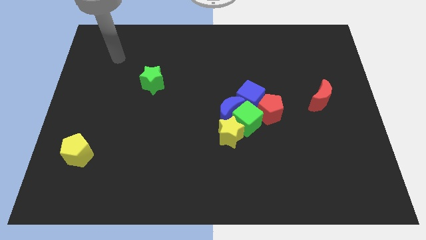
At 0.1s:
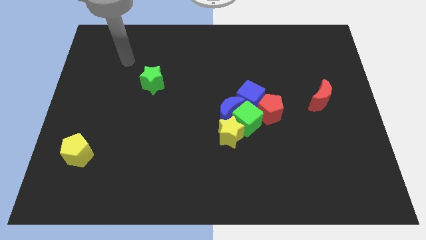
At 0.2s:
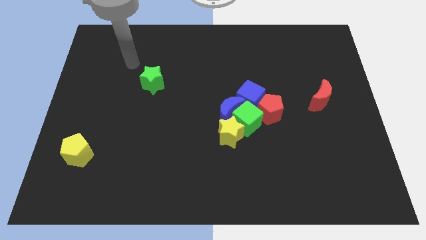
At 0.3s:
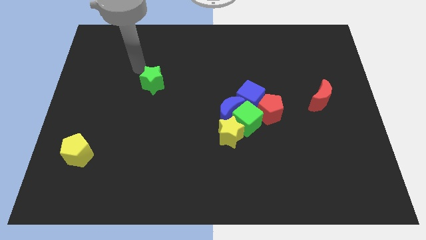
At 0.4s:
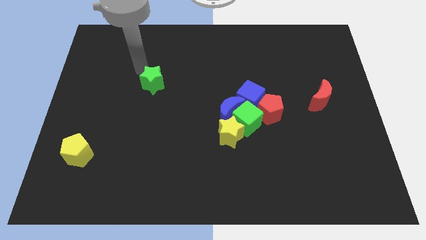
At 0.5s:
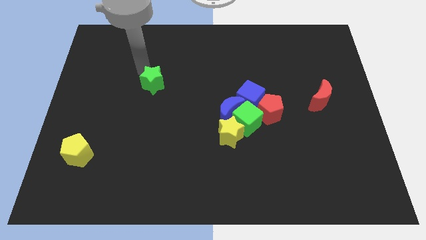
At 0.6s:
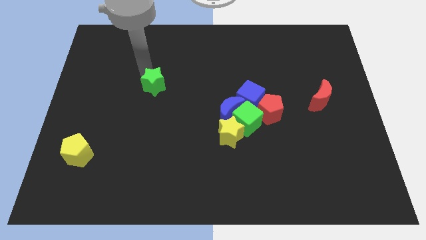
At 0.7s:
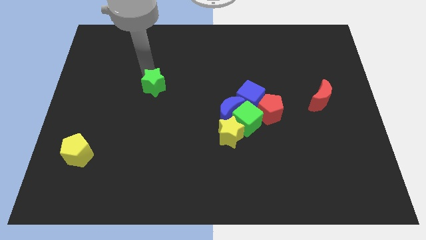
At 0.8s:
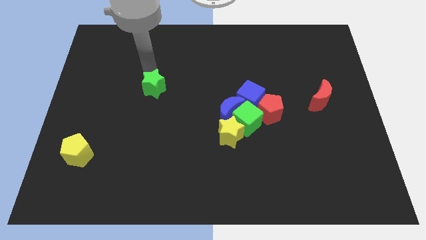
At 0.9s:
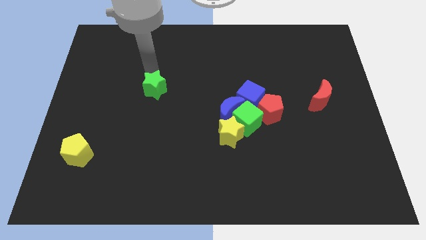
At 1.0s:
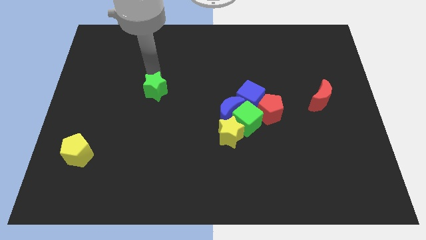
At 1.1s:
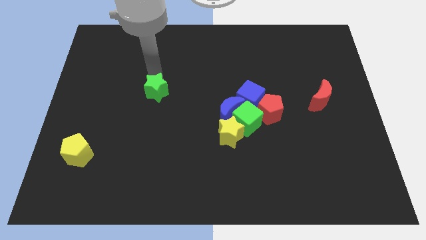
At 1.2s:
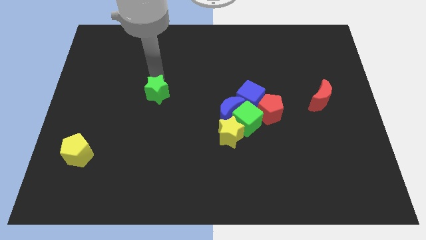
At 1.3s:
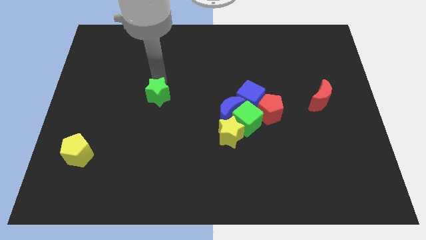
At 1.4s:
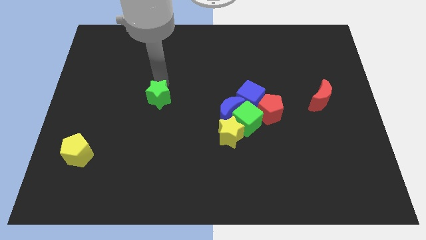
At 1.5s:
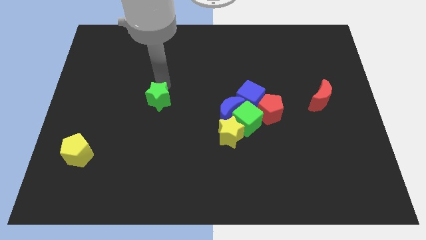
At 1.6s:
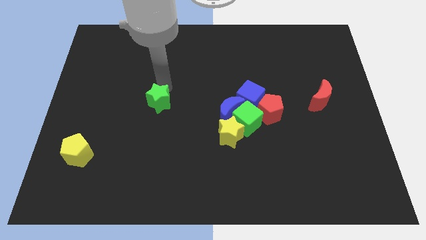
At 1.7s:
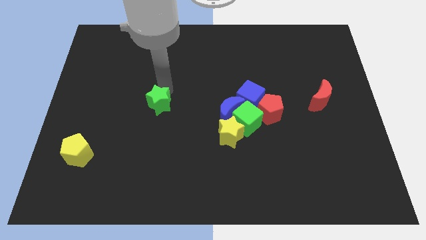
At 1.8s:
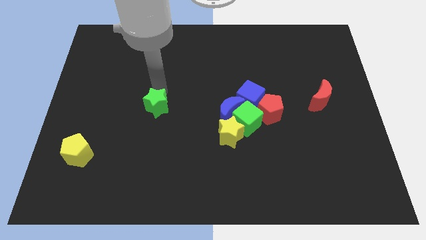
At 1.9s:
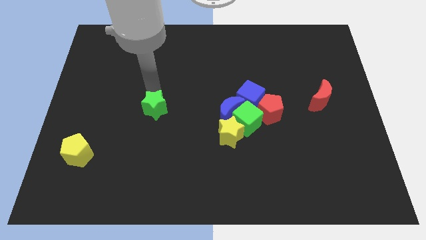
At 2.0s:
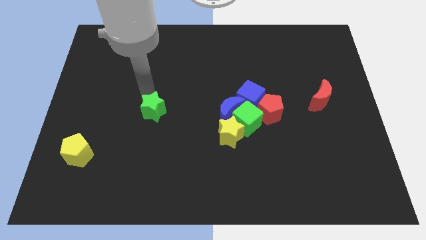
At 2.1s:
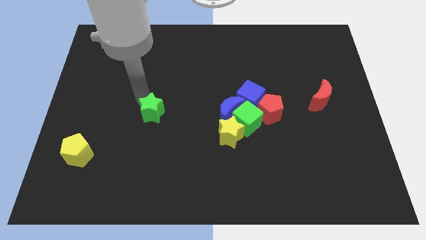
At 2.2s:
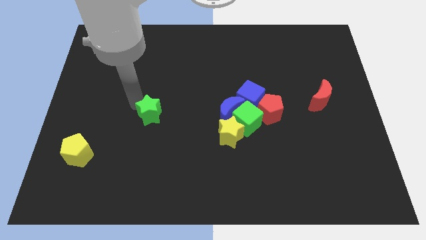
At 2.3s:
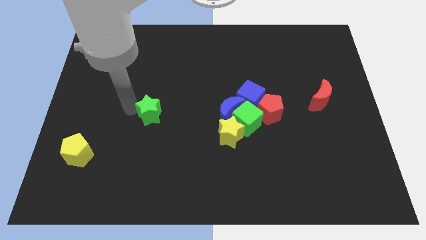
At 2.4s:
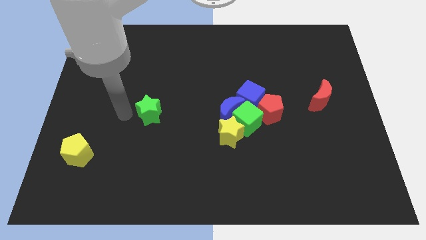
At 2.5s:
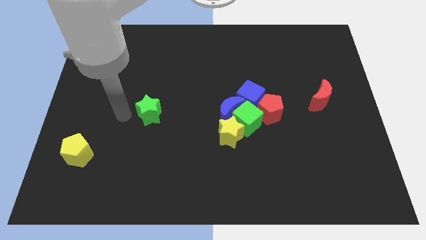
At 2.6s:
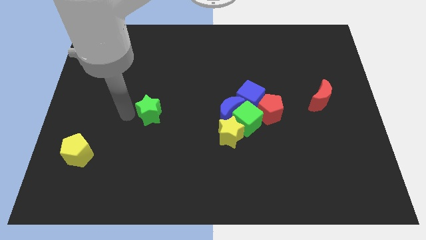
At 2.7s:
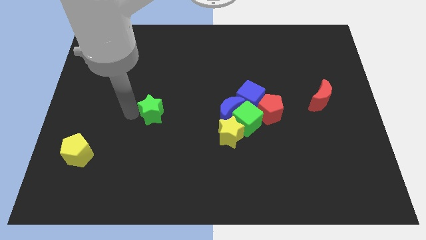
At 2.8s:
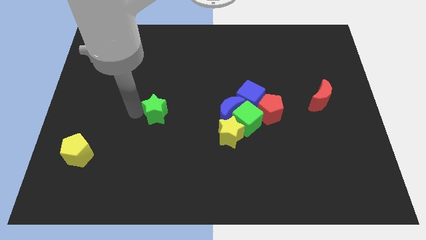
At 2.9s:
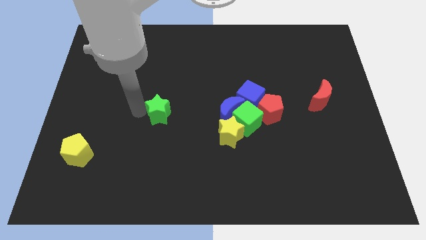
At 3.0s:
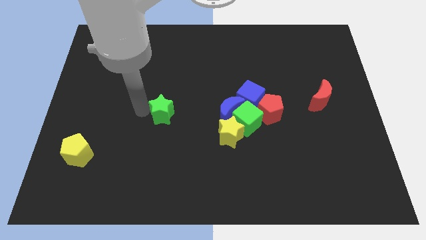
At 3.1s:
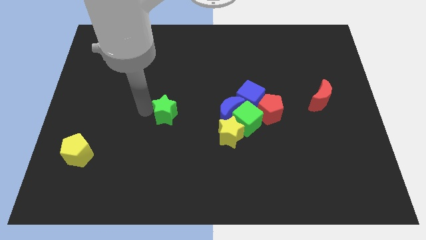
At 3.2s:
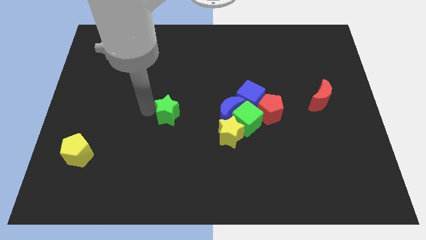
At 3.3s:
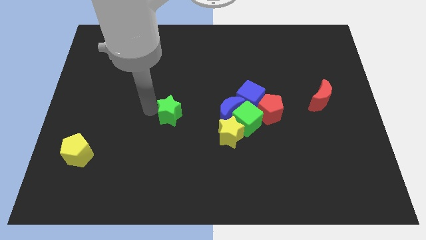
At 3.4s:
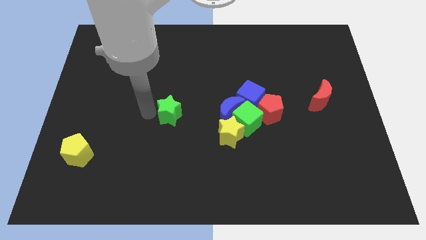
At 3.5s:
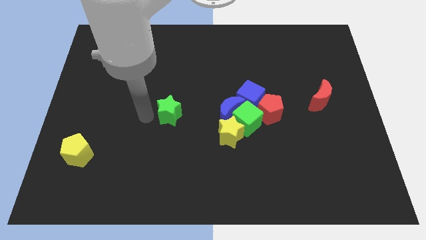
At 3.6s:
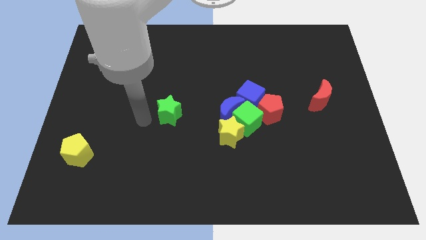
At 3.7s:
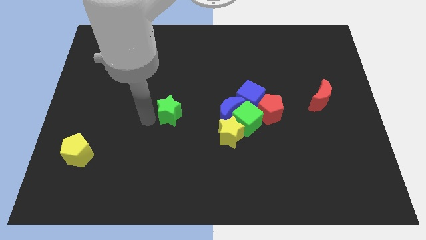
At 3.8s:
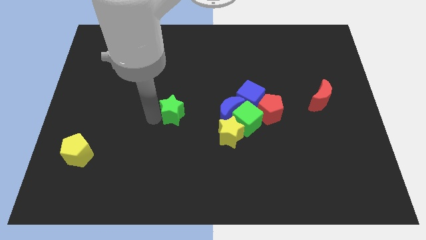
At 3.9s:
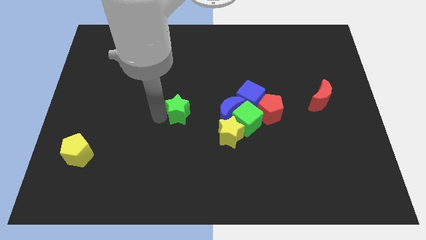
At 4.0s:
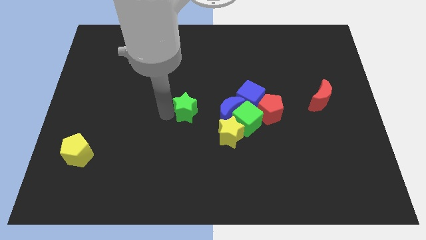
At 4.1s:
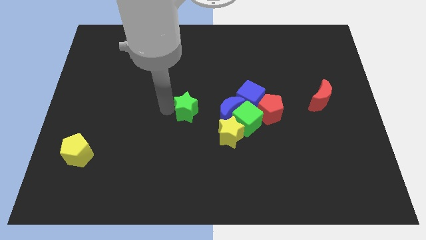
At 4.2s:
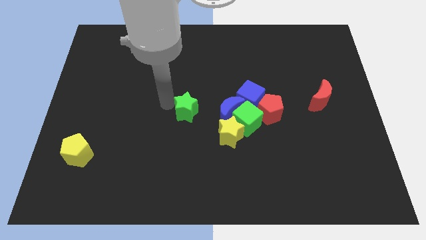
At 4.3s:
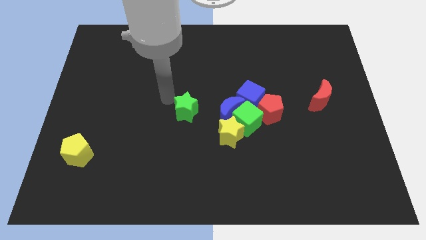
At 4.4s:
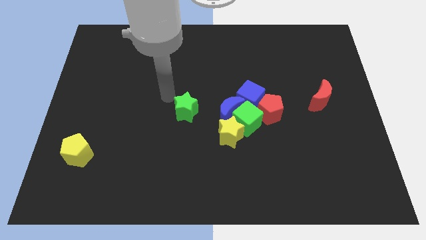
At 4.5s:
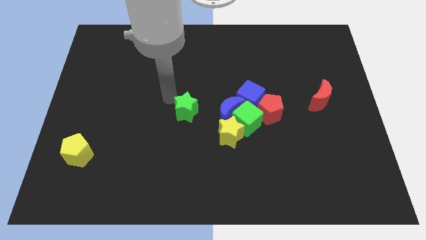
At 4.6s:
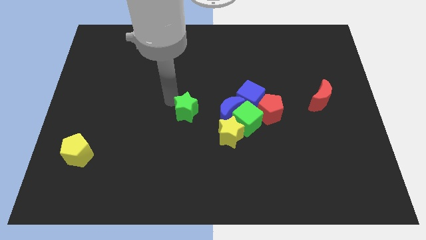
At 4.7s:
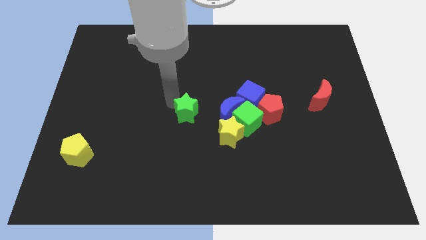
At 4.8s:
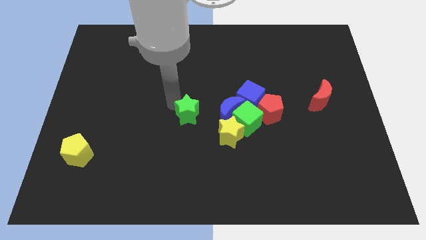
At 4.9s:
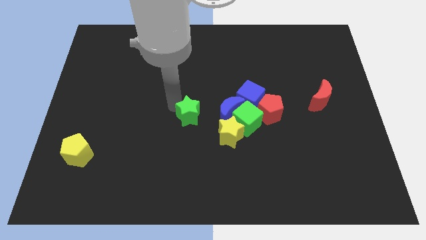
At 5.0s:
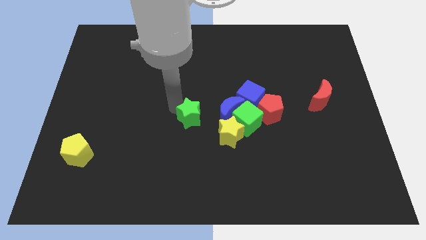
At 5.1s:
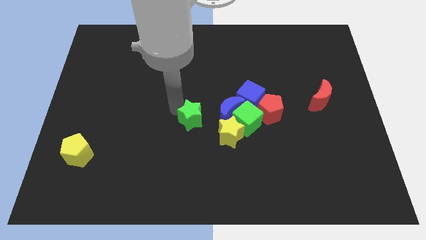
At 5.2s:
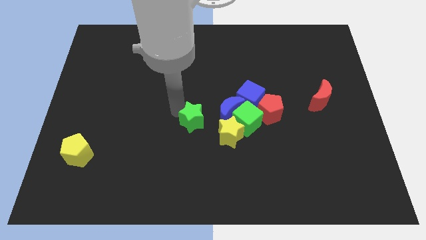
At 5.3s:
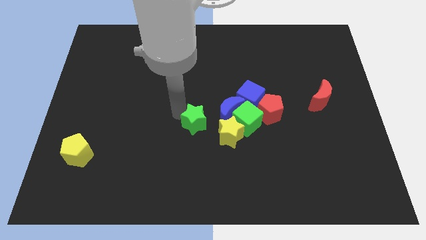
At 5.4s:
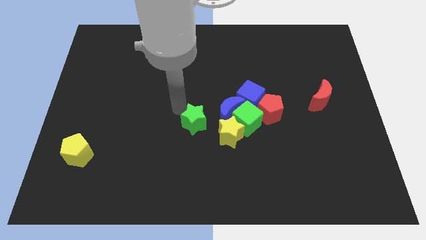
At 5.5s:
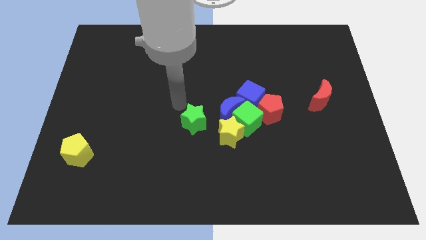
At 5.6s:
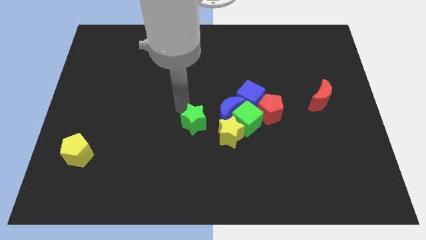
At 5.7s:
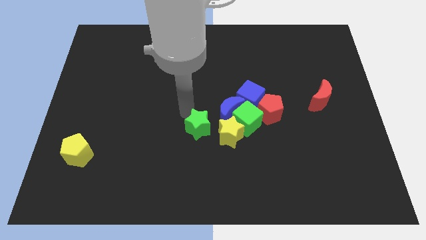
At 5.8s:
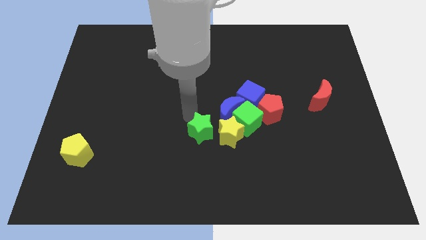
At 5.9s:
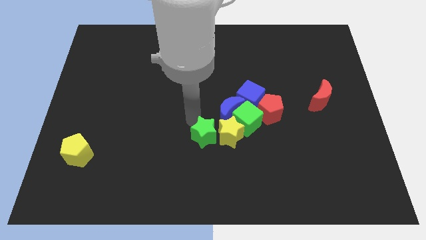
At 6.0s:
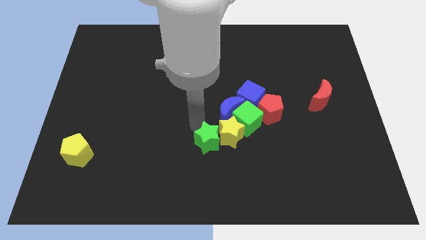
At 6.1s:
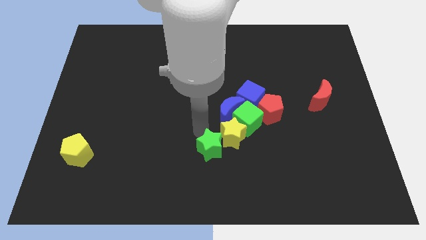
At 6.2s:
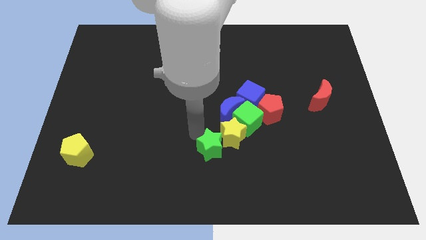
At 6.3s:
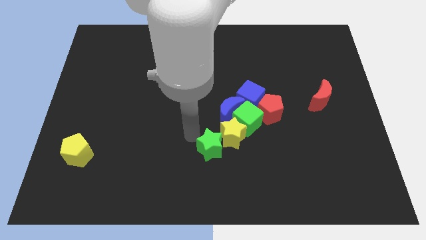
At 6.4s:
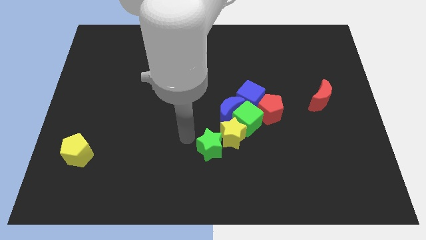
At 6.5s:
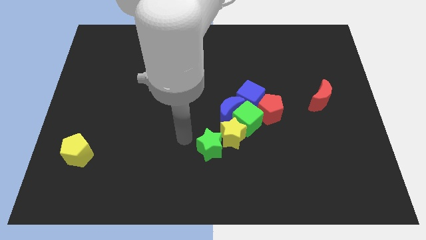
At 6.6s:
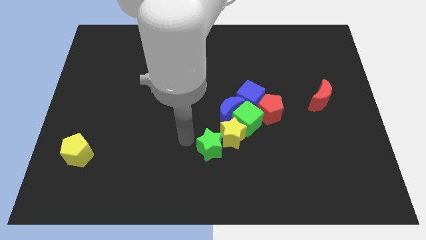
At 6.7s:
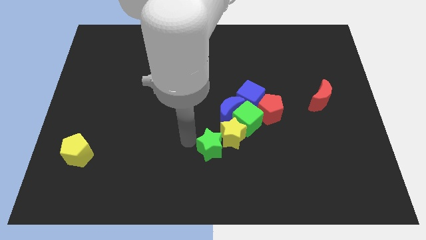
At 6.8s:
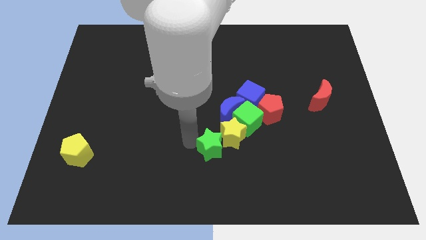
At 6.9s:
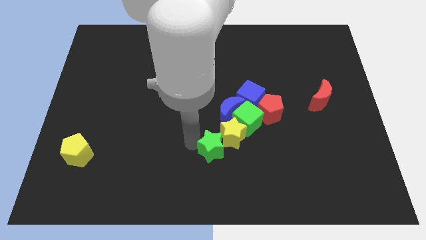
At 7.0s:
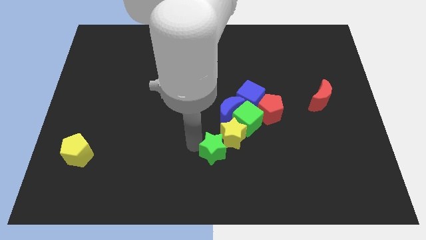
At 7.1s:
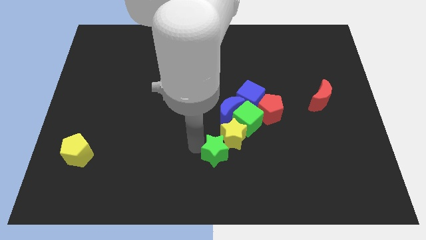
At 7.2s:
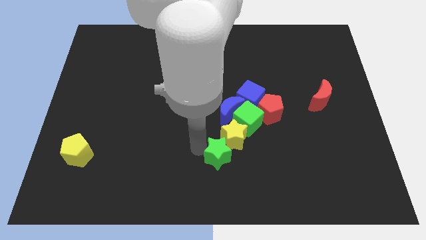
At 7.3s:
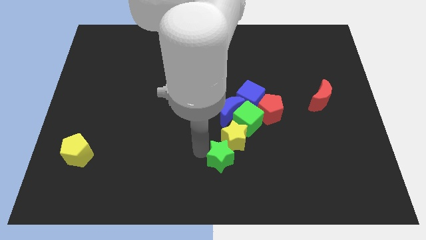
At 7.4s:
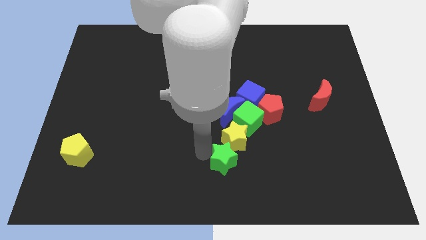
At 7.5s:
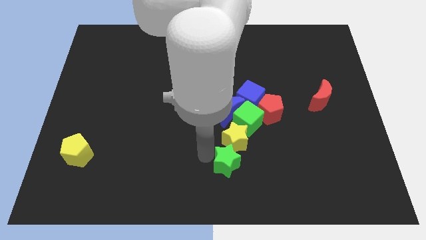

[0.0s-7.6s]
put the green star to the bottom side of the green cube
